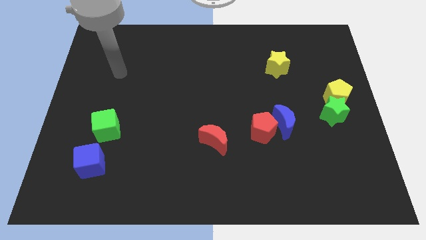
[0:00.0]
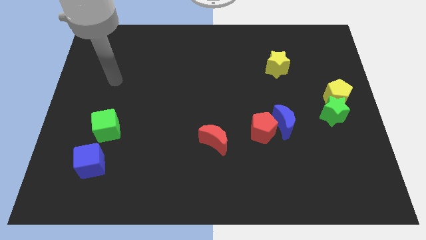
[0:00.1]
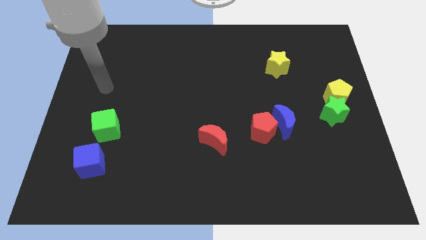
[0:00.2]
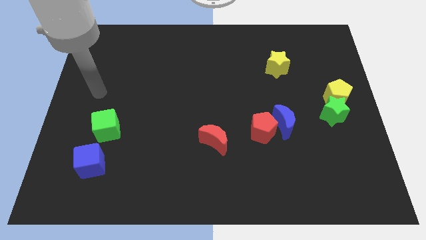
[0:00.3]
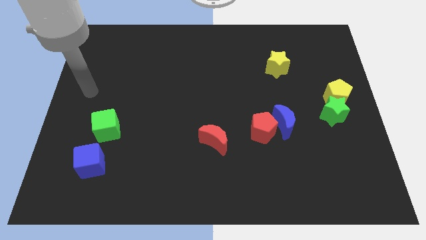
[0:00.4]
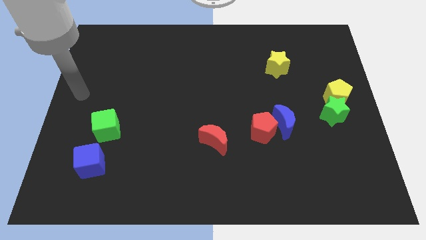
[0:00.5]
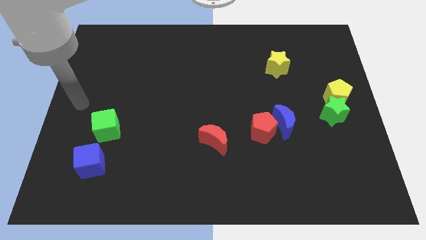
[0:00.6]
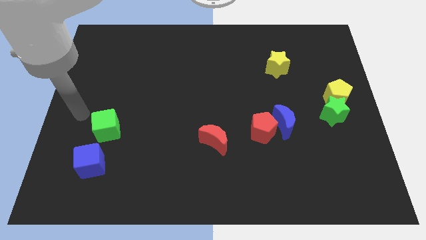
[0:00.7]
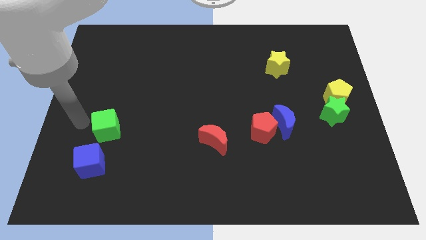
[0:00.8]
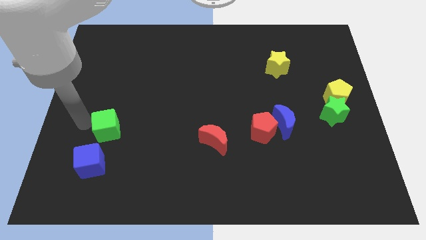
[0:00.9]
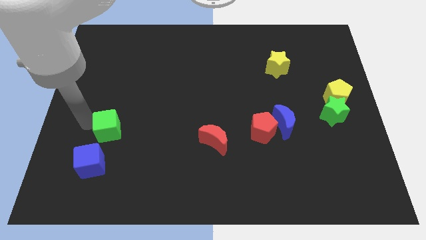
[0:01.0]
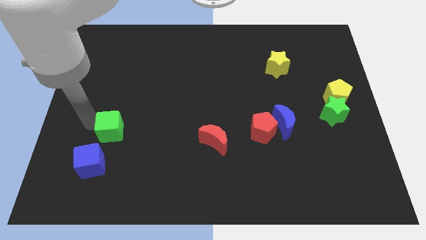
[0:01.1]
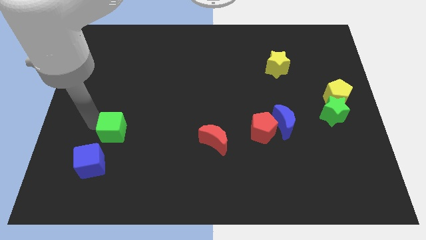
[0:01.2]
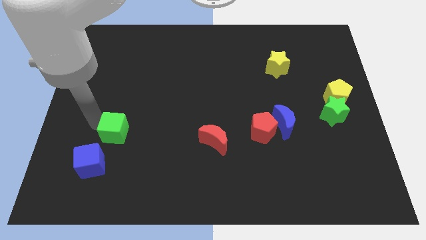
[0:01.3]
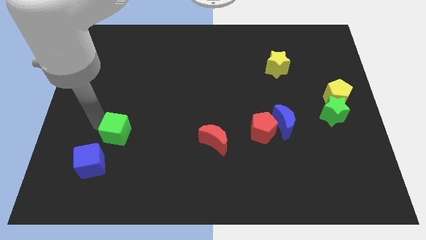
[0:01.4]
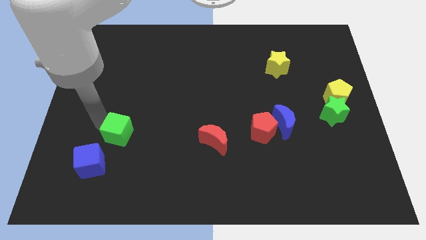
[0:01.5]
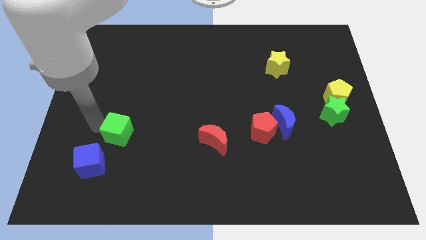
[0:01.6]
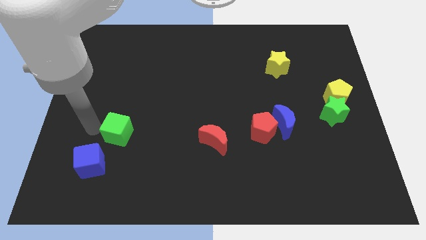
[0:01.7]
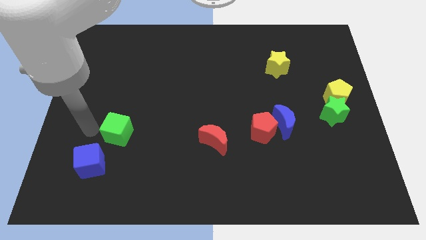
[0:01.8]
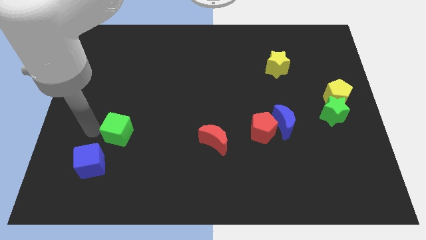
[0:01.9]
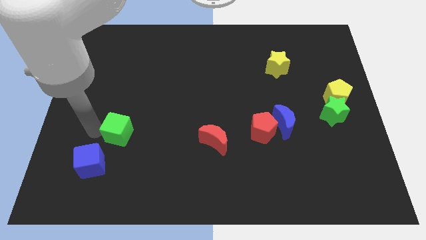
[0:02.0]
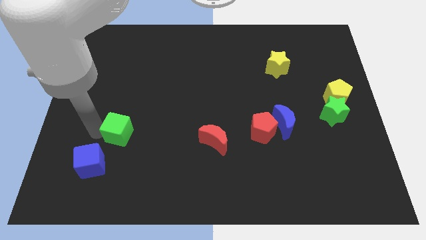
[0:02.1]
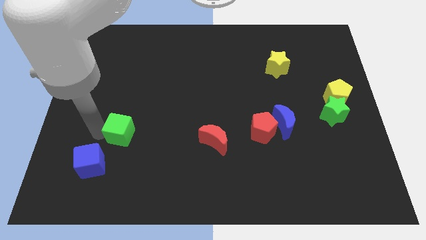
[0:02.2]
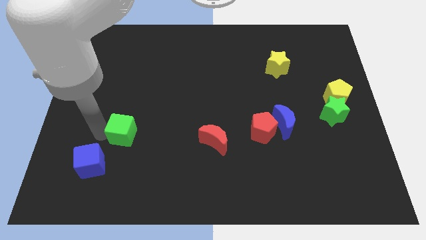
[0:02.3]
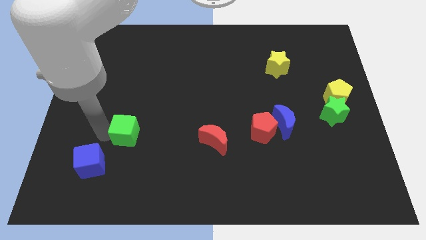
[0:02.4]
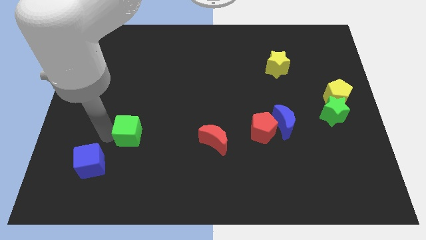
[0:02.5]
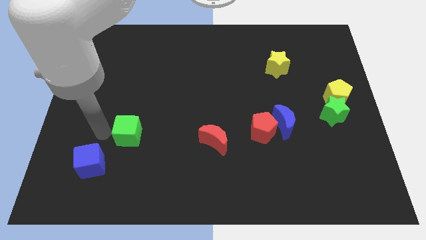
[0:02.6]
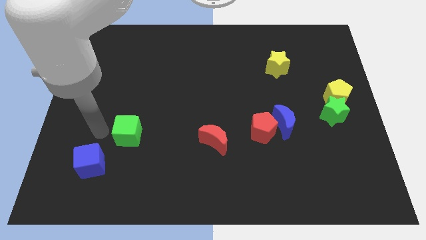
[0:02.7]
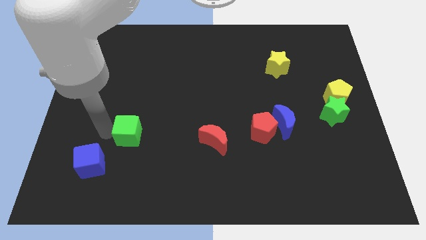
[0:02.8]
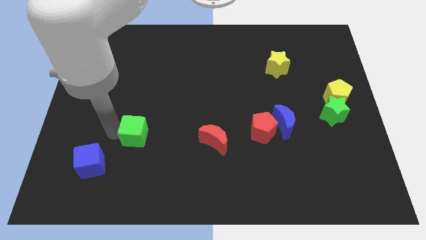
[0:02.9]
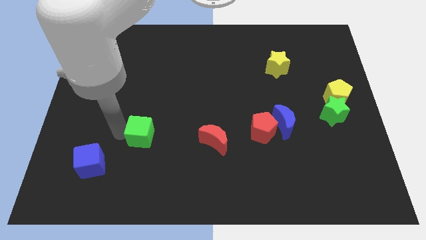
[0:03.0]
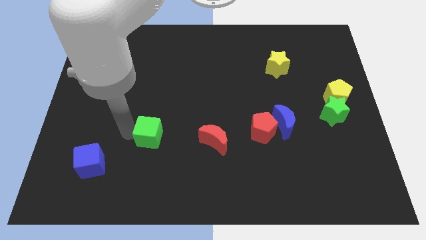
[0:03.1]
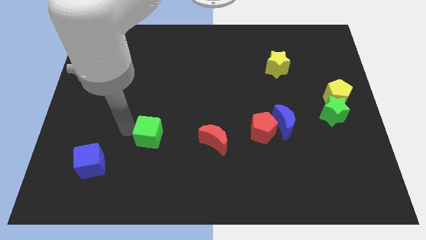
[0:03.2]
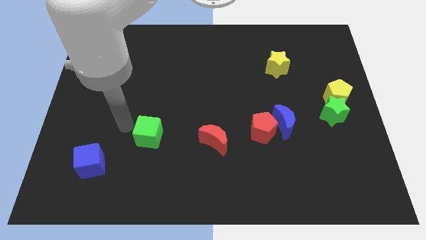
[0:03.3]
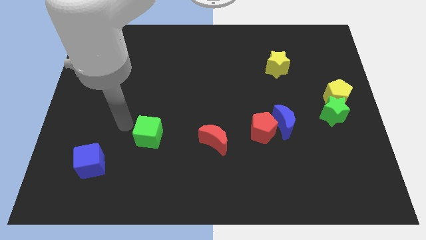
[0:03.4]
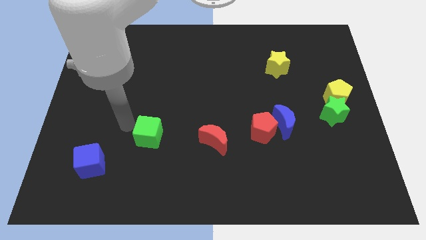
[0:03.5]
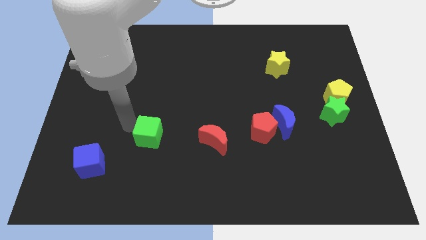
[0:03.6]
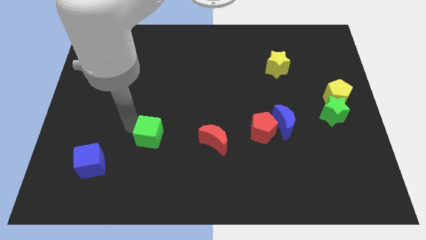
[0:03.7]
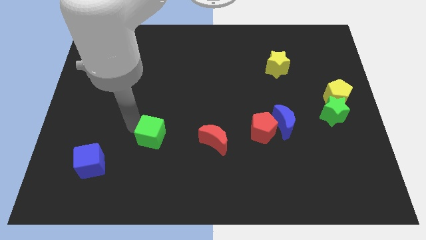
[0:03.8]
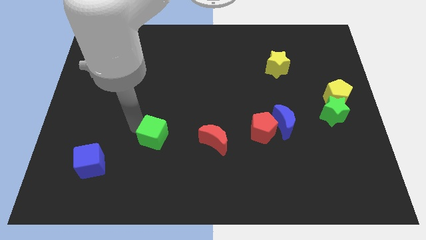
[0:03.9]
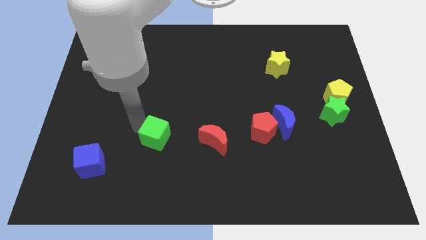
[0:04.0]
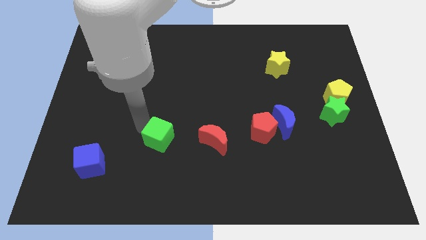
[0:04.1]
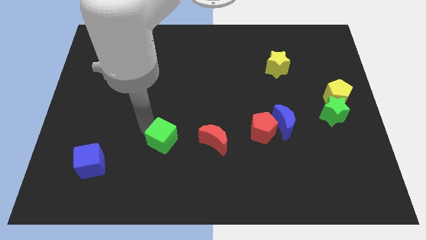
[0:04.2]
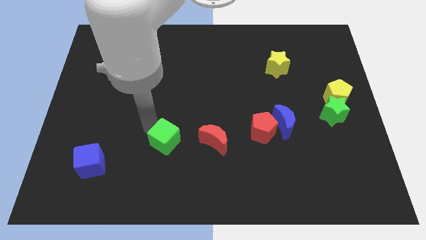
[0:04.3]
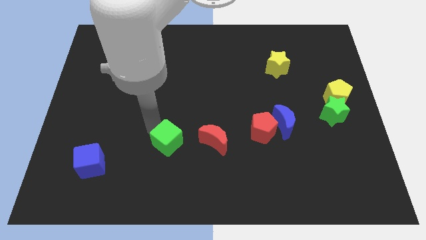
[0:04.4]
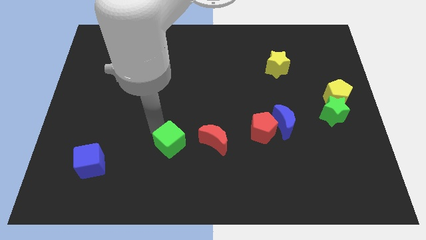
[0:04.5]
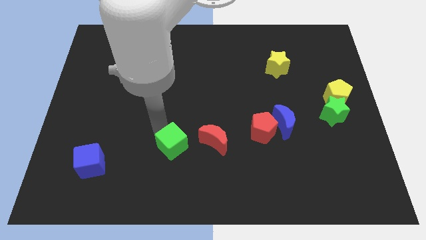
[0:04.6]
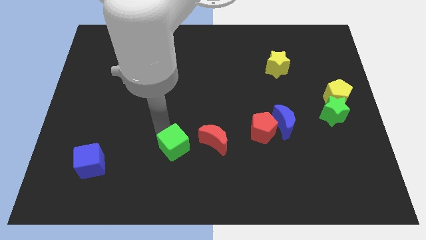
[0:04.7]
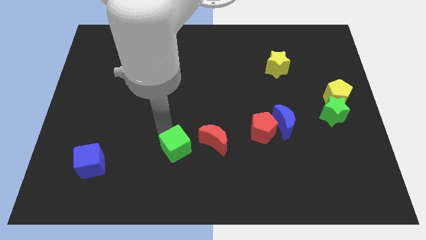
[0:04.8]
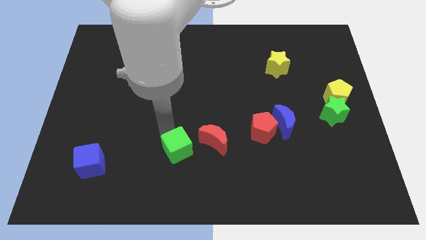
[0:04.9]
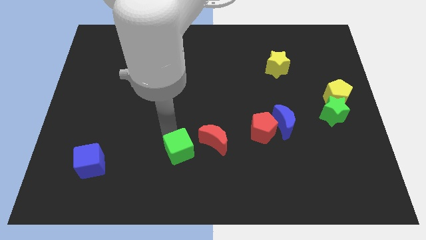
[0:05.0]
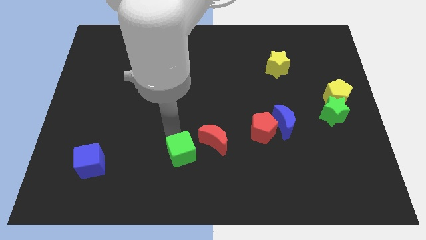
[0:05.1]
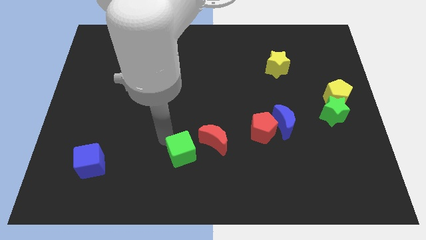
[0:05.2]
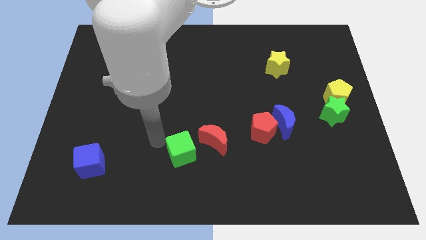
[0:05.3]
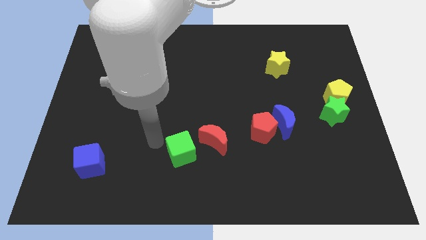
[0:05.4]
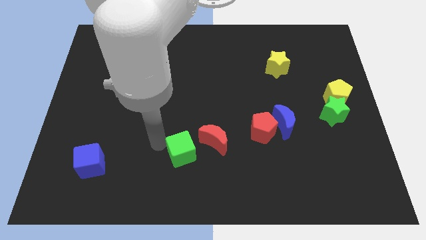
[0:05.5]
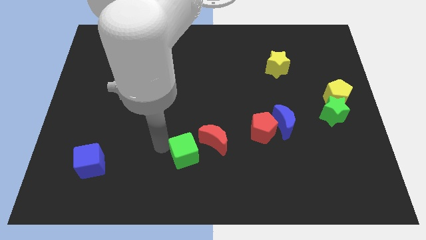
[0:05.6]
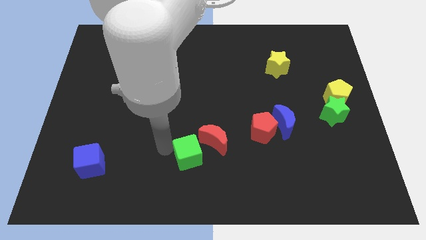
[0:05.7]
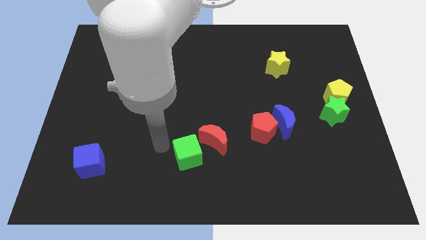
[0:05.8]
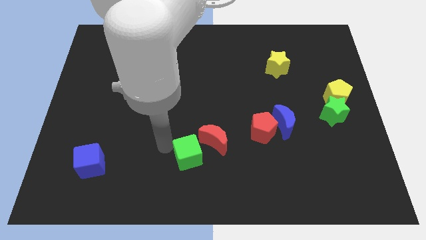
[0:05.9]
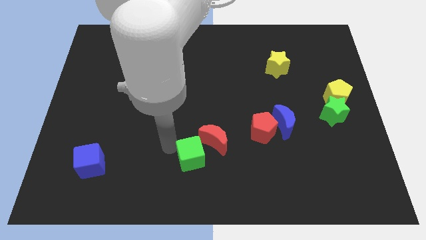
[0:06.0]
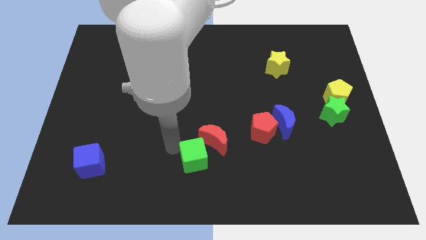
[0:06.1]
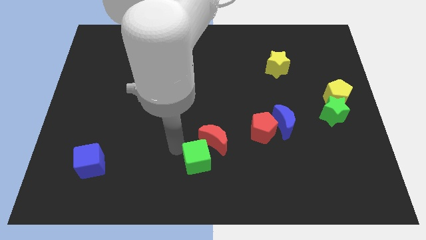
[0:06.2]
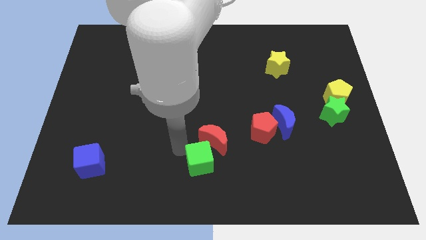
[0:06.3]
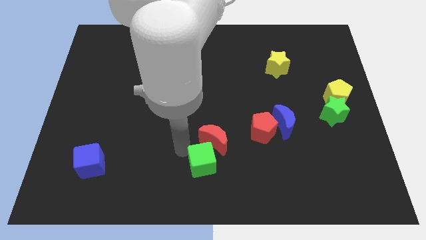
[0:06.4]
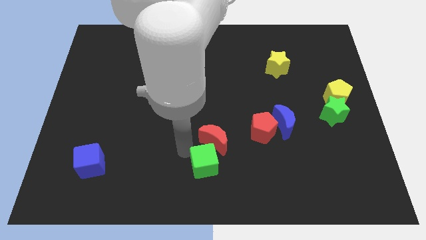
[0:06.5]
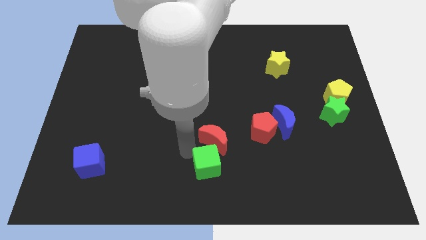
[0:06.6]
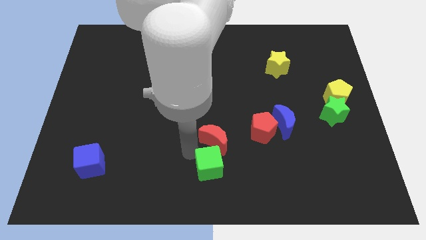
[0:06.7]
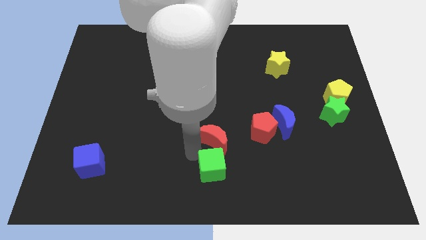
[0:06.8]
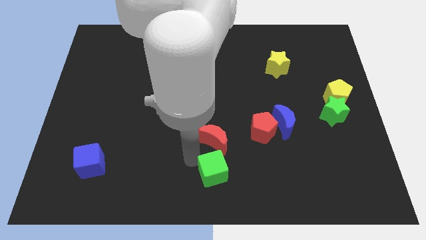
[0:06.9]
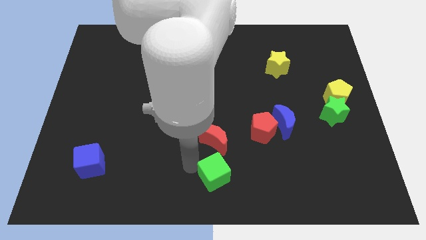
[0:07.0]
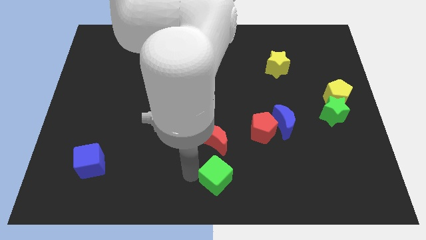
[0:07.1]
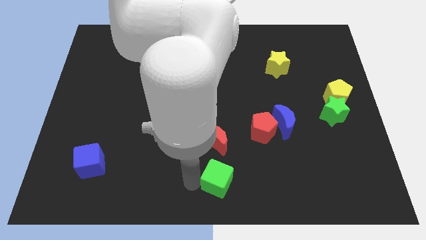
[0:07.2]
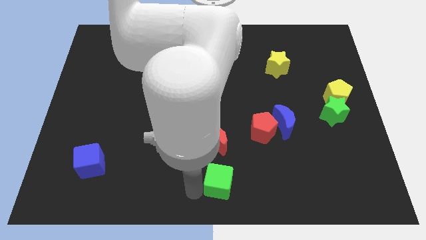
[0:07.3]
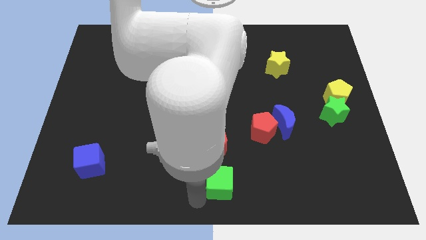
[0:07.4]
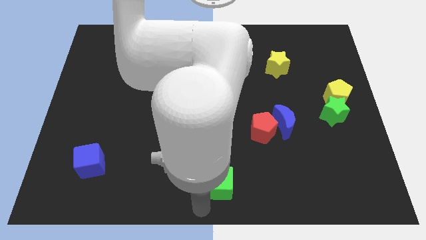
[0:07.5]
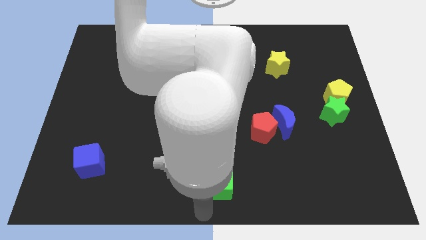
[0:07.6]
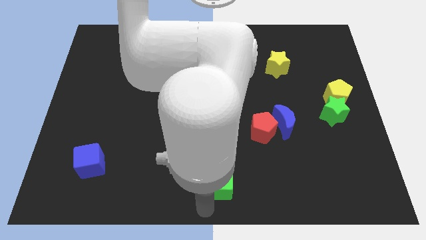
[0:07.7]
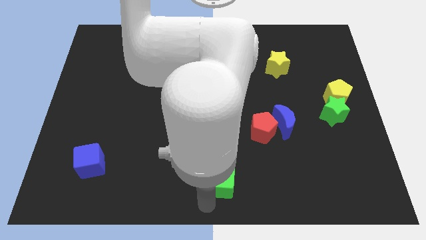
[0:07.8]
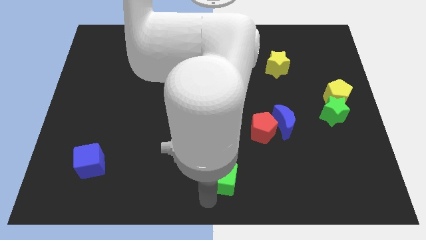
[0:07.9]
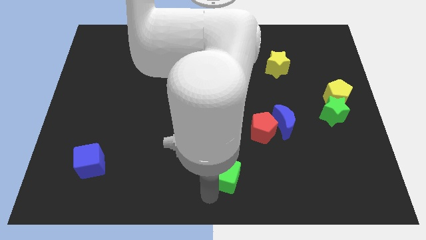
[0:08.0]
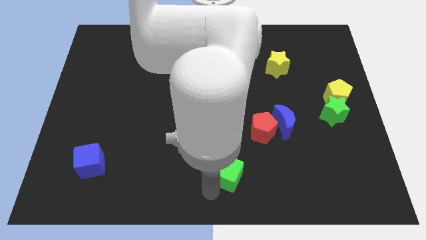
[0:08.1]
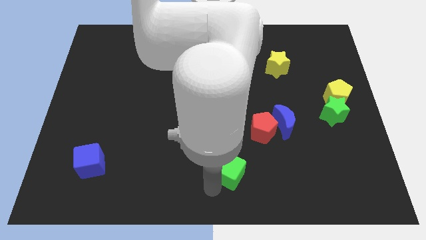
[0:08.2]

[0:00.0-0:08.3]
slide the green cube diagonally down and to the left of the red pentagon
